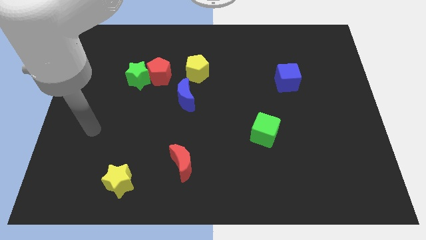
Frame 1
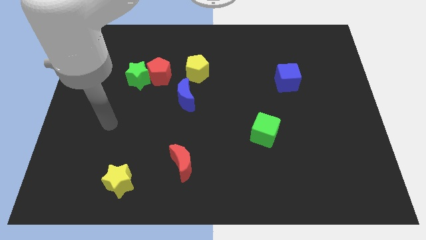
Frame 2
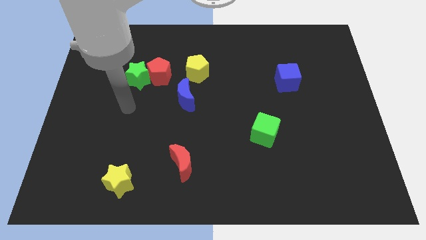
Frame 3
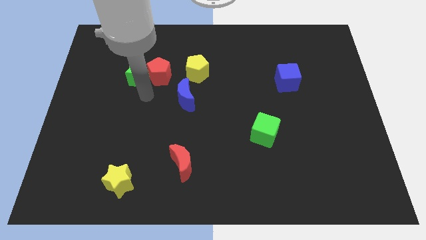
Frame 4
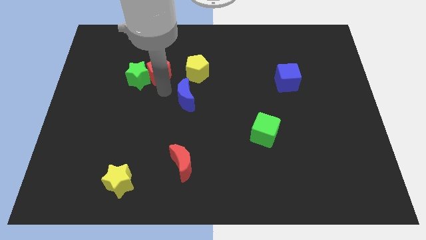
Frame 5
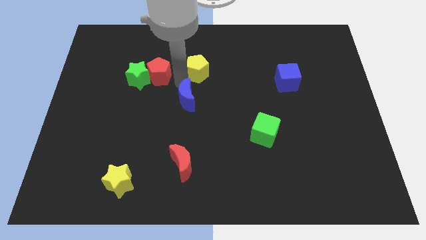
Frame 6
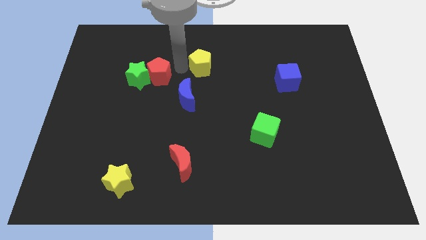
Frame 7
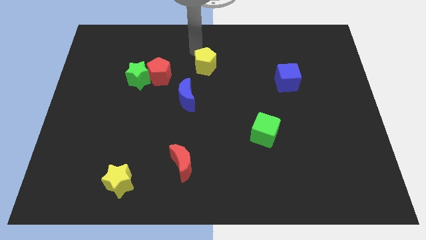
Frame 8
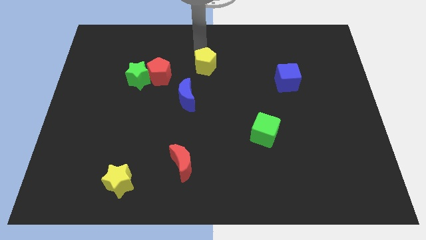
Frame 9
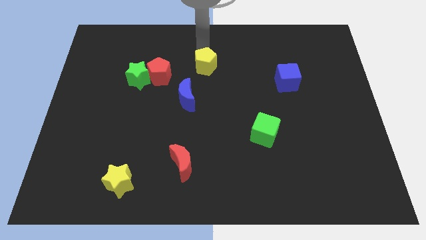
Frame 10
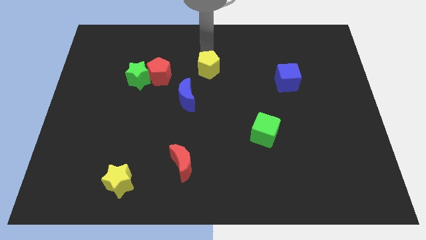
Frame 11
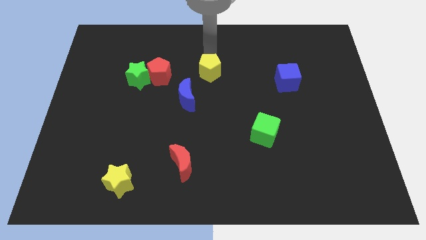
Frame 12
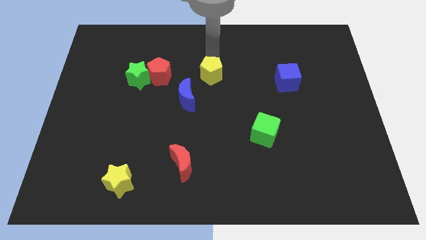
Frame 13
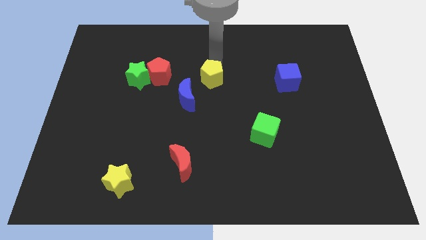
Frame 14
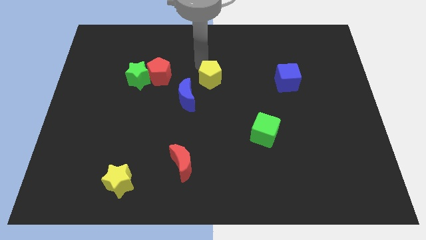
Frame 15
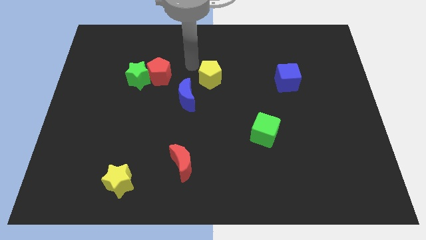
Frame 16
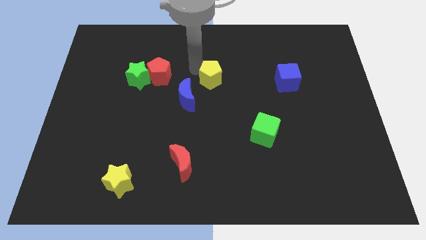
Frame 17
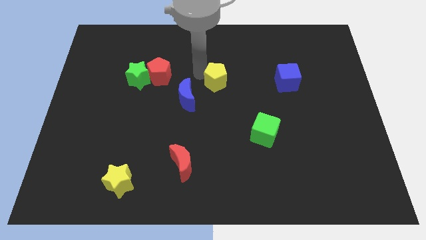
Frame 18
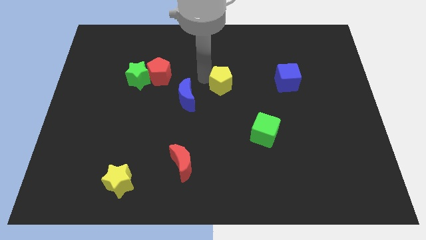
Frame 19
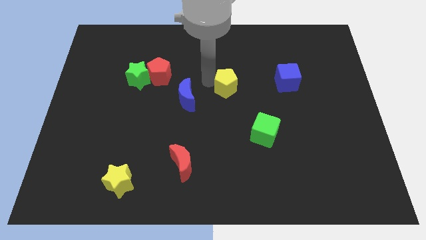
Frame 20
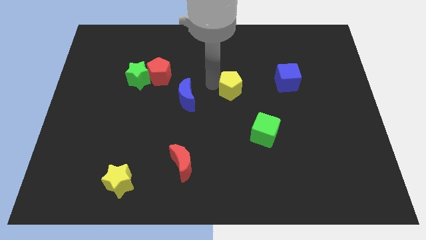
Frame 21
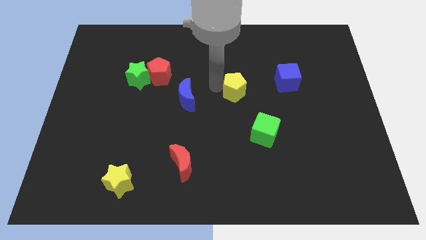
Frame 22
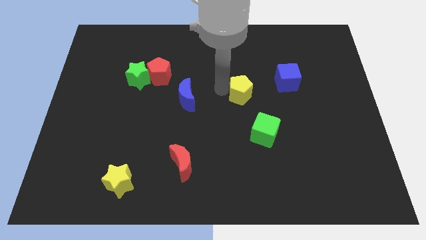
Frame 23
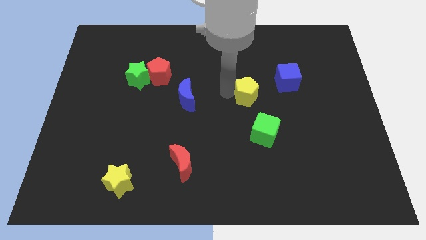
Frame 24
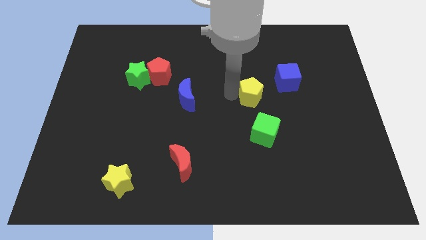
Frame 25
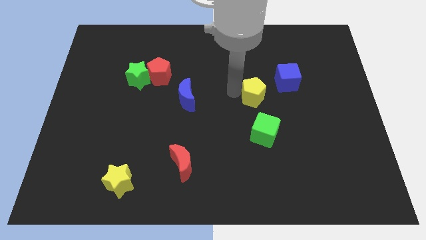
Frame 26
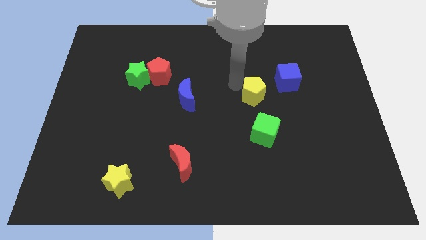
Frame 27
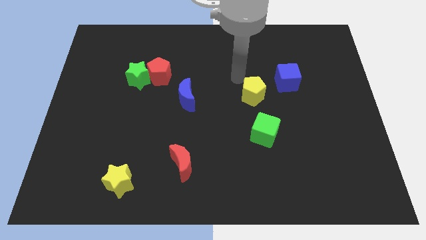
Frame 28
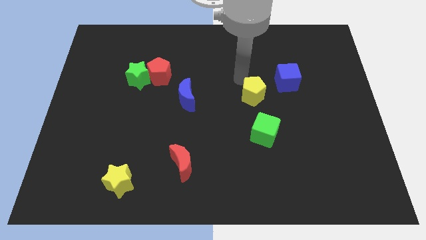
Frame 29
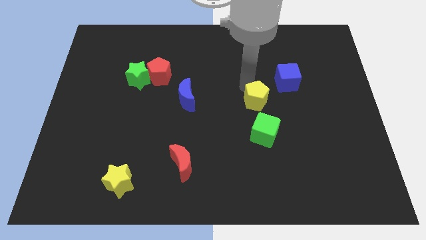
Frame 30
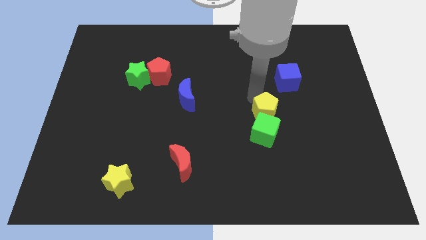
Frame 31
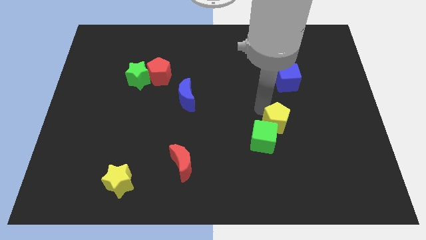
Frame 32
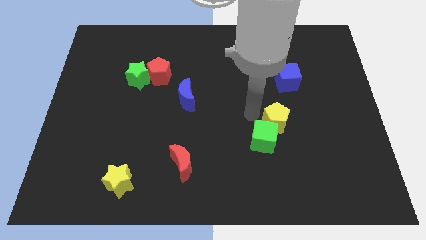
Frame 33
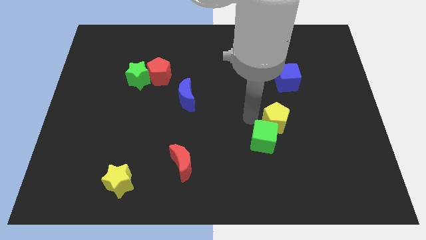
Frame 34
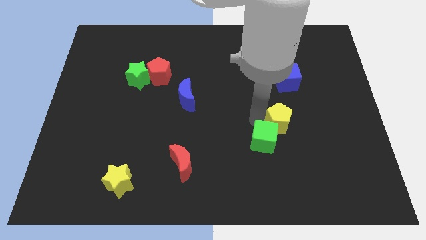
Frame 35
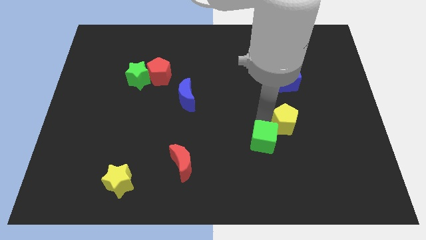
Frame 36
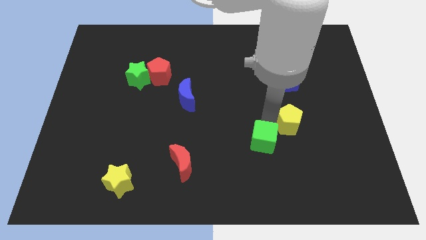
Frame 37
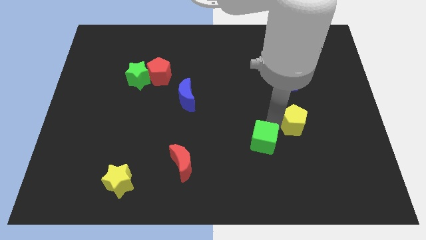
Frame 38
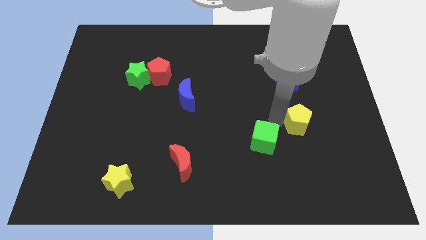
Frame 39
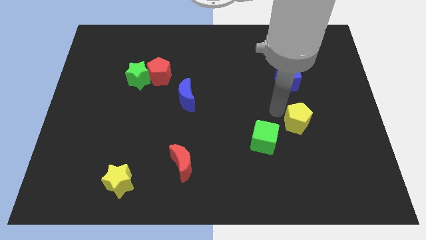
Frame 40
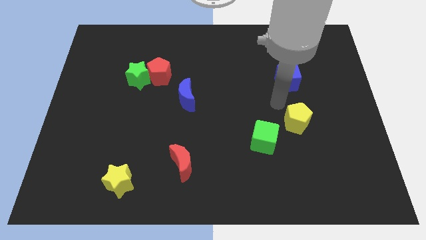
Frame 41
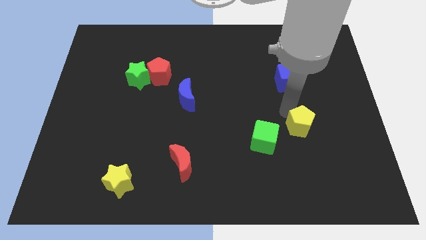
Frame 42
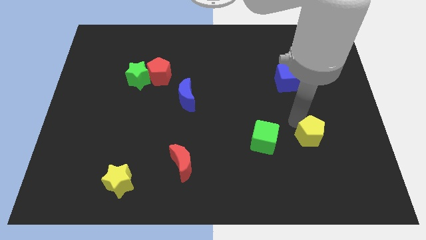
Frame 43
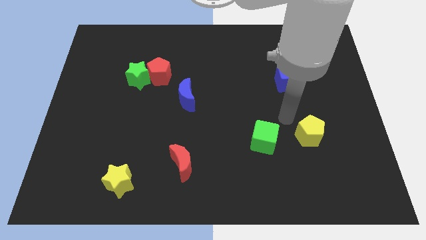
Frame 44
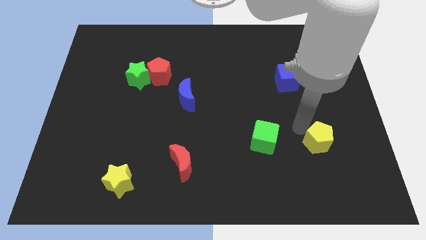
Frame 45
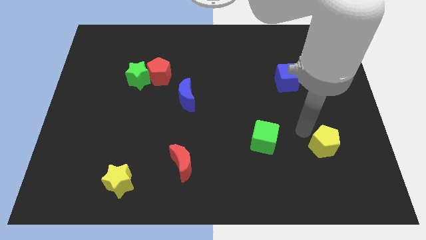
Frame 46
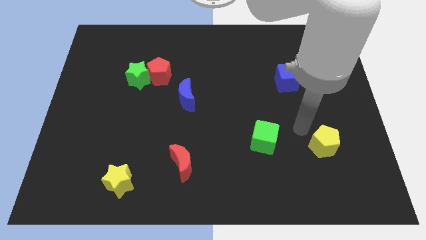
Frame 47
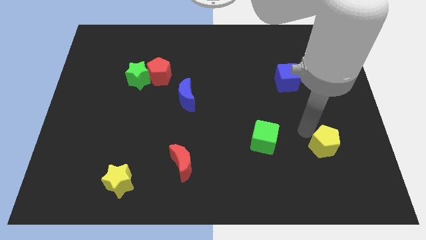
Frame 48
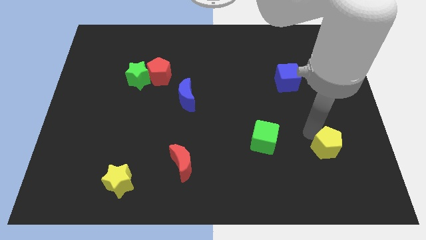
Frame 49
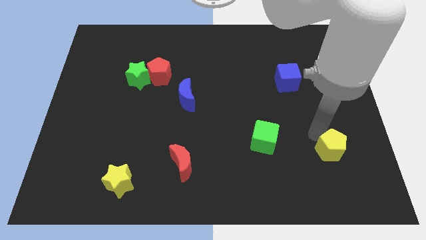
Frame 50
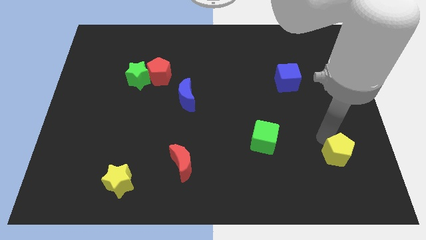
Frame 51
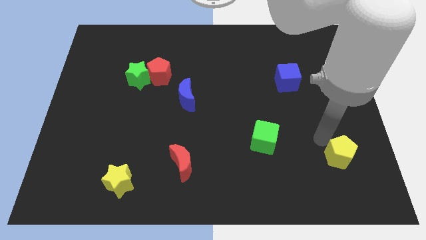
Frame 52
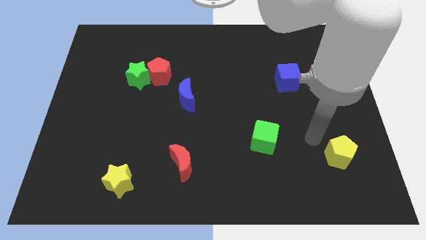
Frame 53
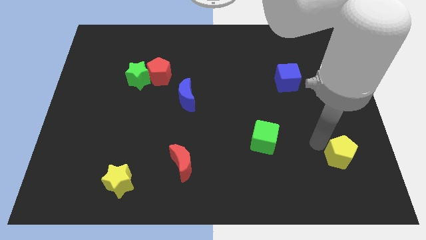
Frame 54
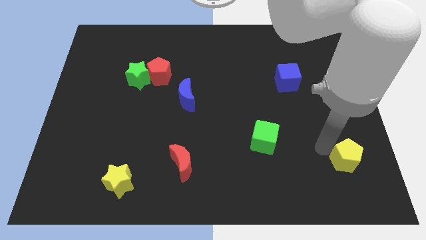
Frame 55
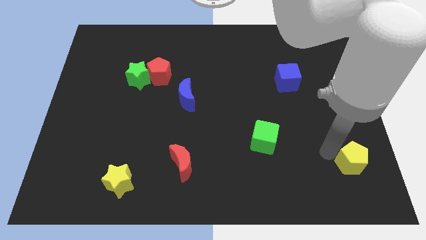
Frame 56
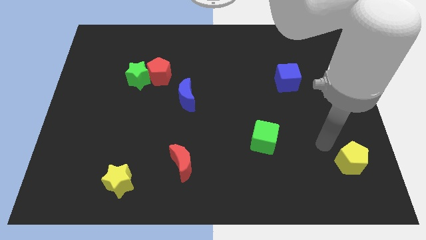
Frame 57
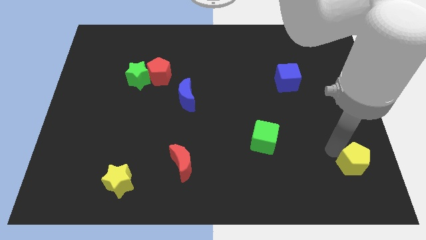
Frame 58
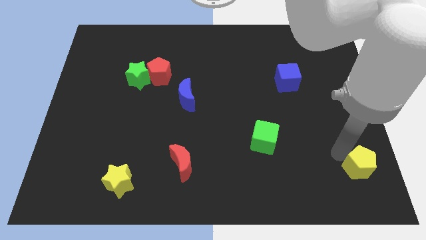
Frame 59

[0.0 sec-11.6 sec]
slide the yellow pentagon to the lower right corner

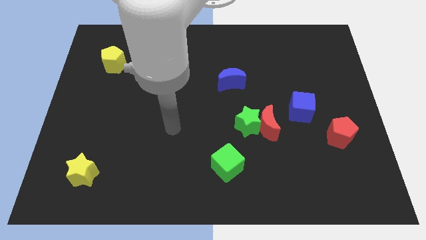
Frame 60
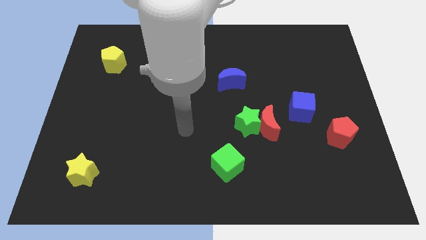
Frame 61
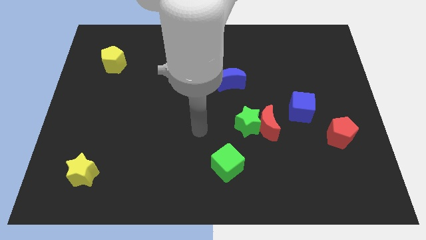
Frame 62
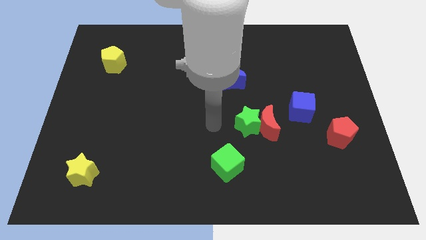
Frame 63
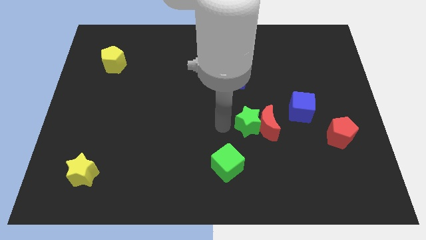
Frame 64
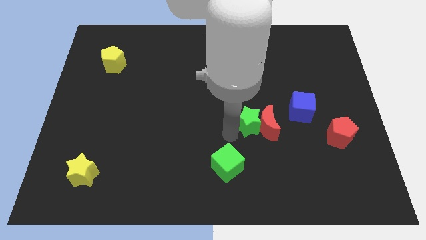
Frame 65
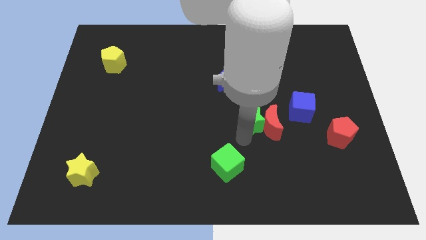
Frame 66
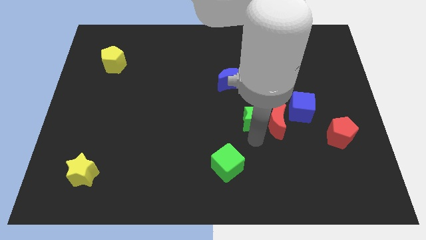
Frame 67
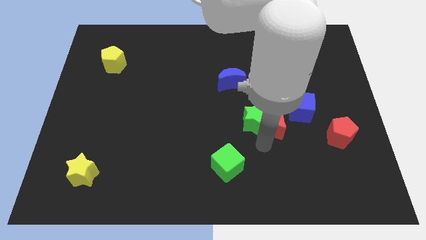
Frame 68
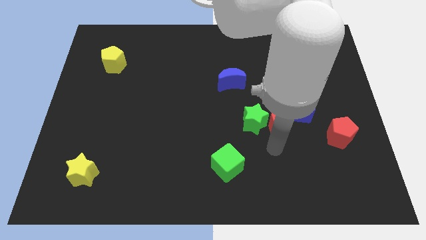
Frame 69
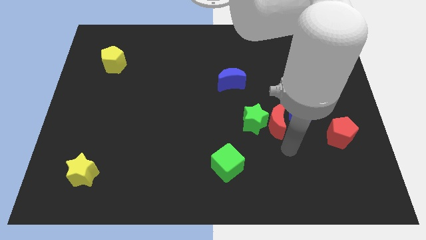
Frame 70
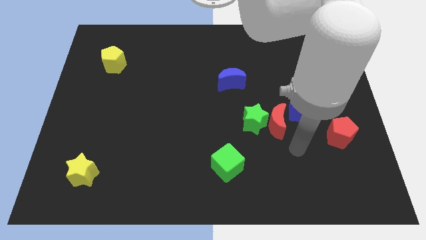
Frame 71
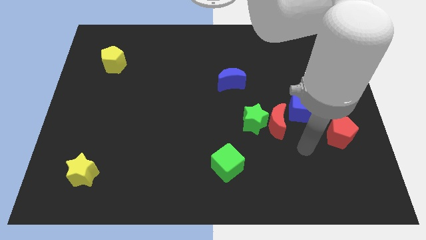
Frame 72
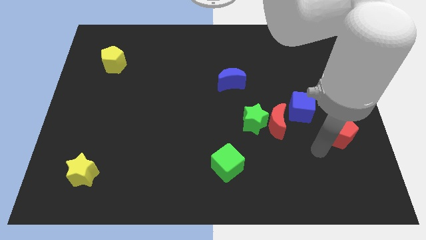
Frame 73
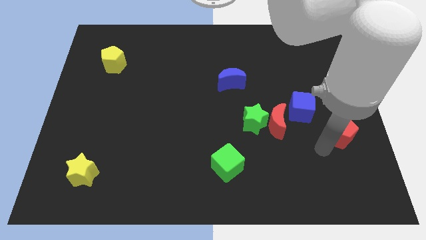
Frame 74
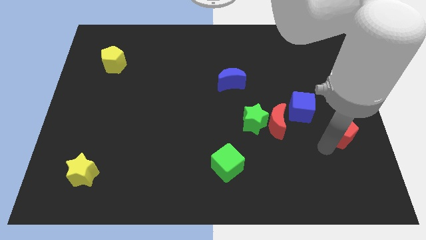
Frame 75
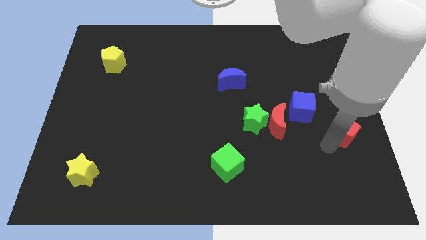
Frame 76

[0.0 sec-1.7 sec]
put the red pentagon to the right side
